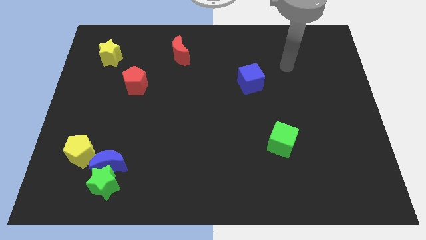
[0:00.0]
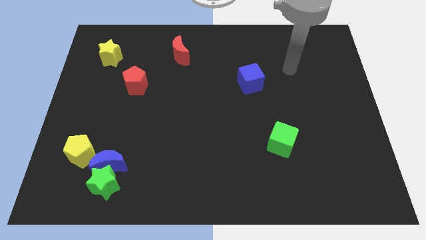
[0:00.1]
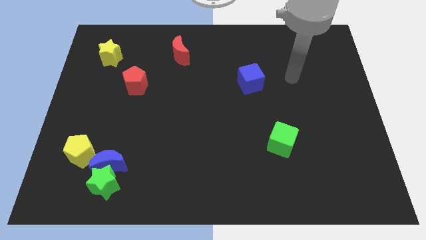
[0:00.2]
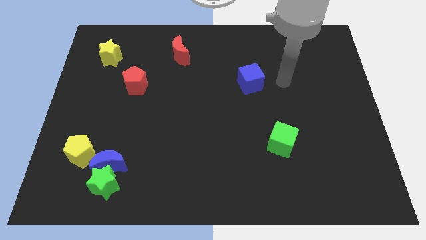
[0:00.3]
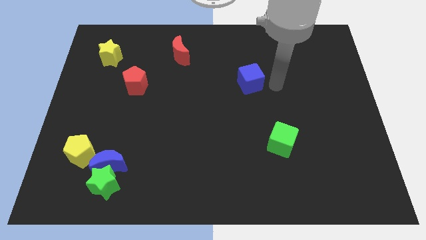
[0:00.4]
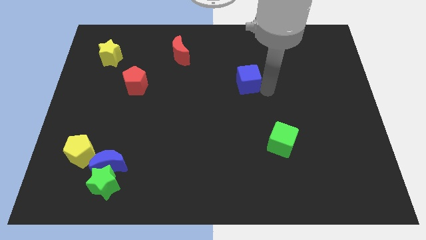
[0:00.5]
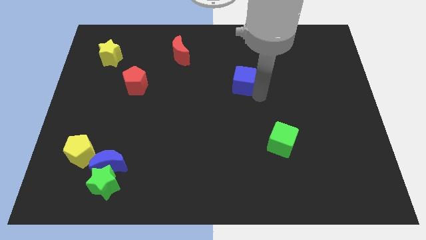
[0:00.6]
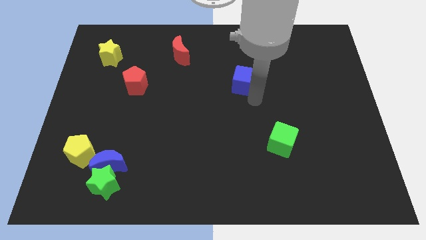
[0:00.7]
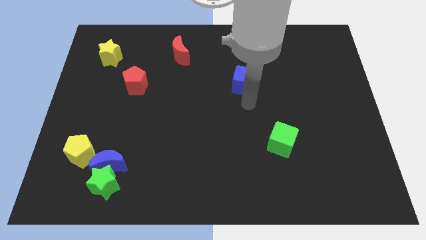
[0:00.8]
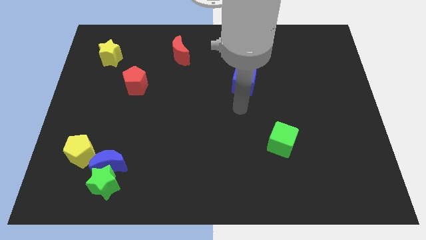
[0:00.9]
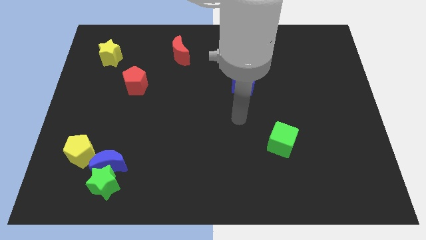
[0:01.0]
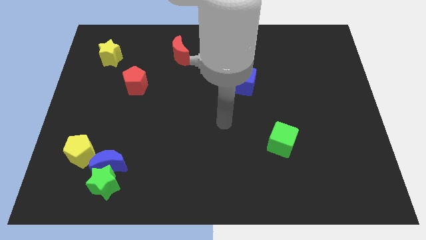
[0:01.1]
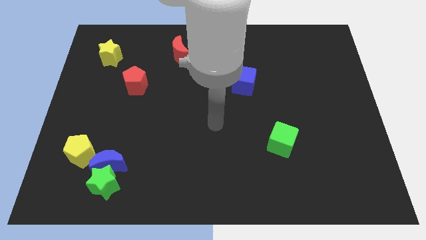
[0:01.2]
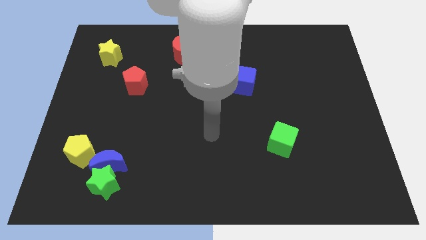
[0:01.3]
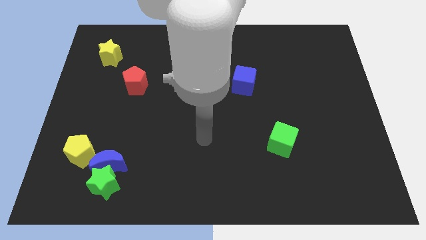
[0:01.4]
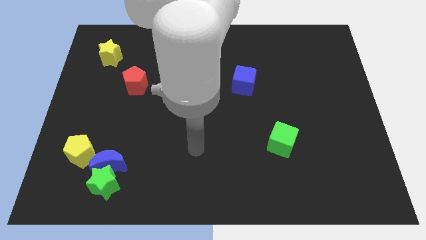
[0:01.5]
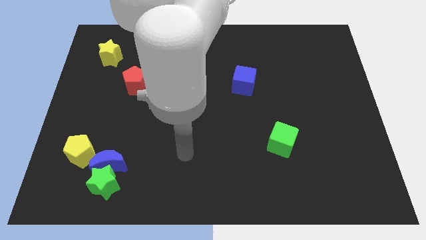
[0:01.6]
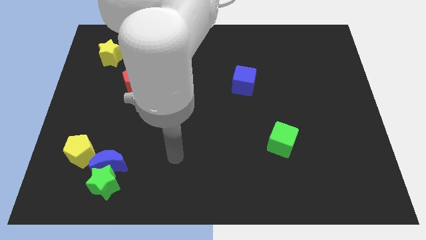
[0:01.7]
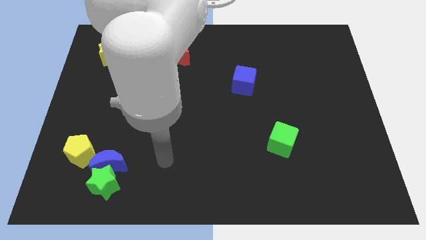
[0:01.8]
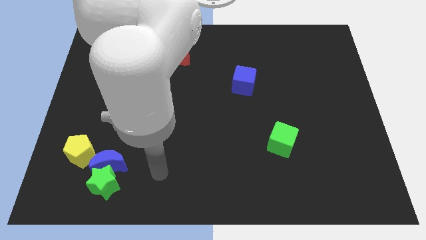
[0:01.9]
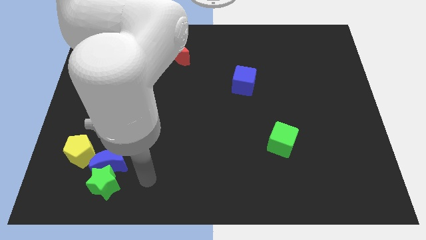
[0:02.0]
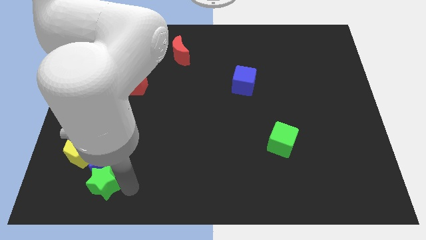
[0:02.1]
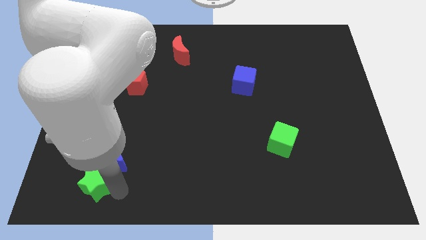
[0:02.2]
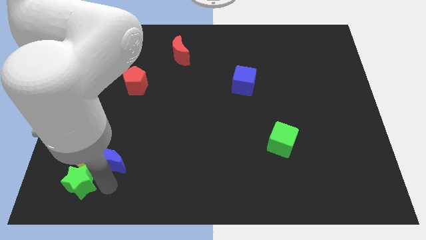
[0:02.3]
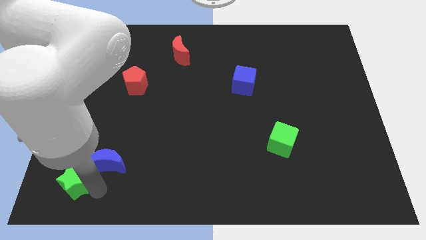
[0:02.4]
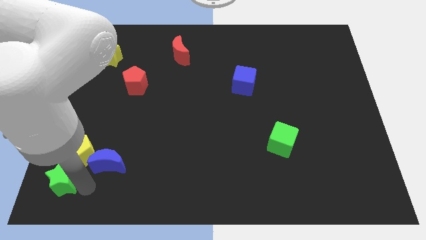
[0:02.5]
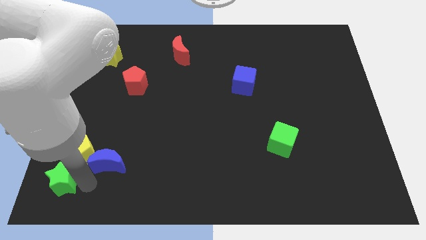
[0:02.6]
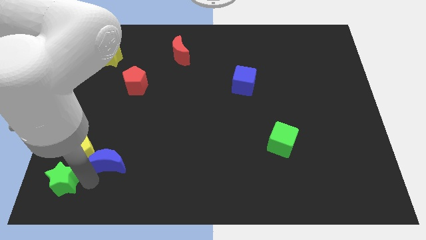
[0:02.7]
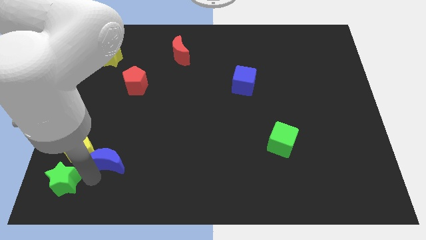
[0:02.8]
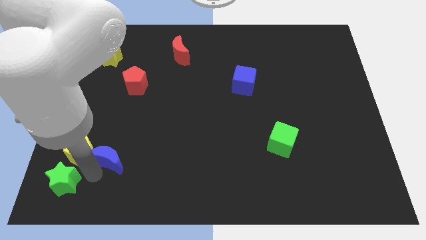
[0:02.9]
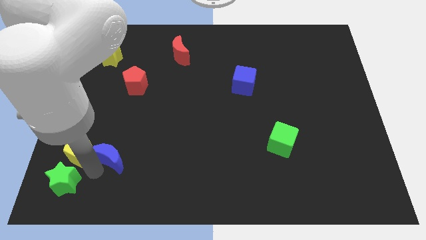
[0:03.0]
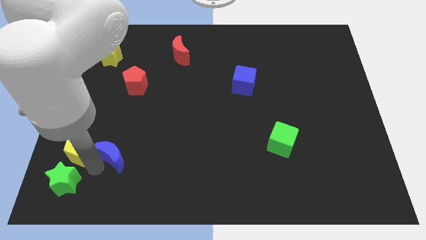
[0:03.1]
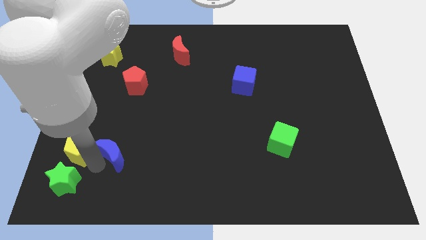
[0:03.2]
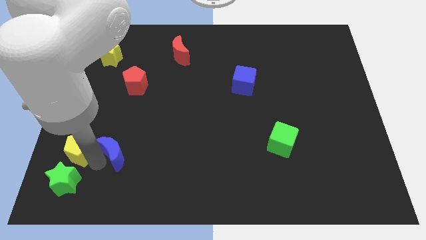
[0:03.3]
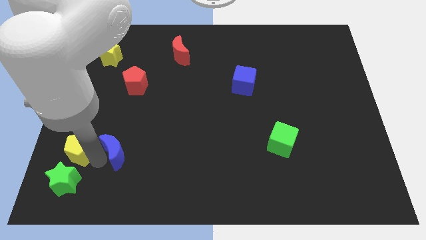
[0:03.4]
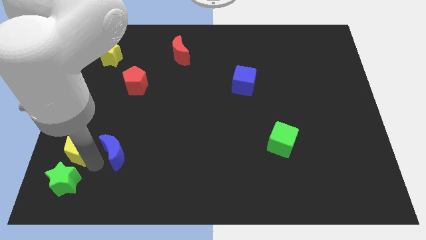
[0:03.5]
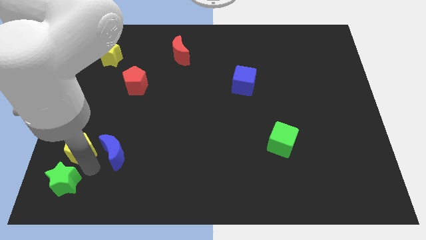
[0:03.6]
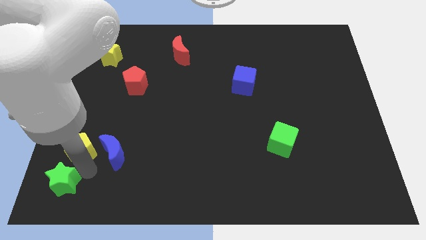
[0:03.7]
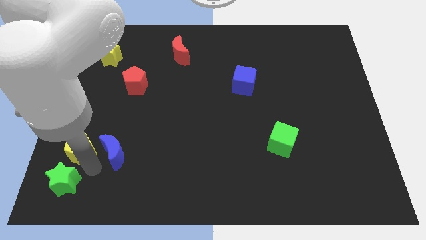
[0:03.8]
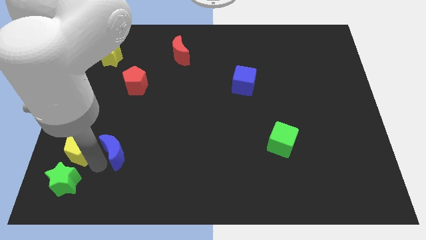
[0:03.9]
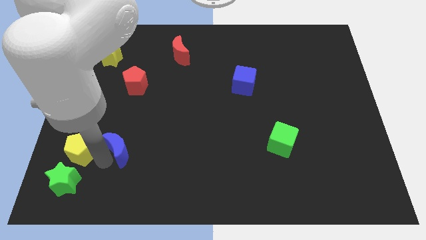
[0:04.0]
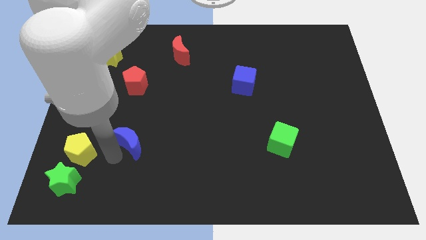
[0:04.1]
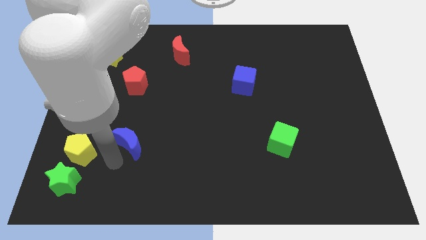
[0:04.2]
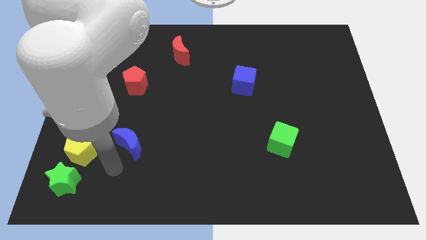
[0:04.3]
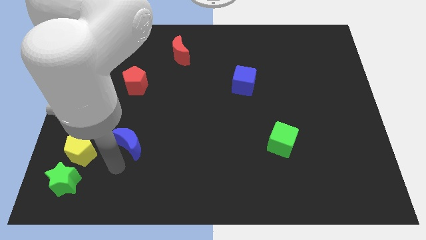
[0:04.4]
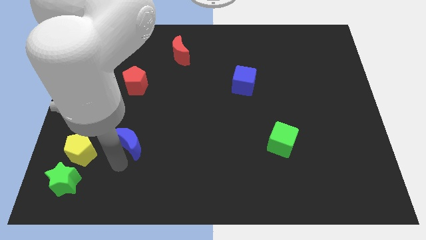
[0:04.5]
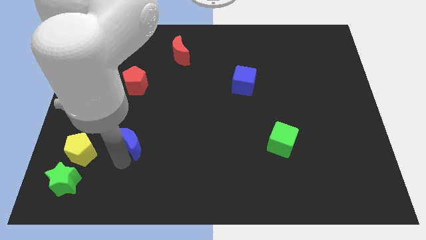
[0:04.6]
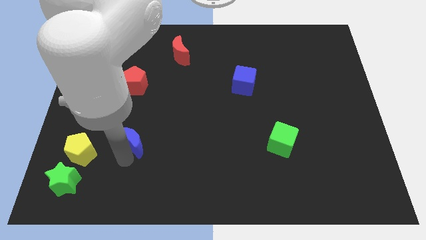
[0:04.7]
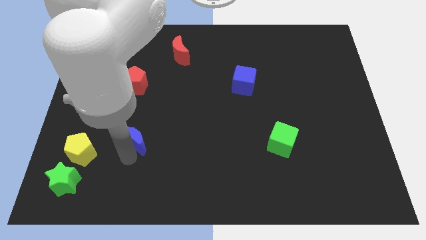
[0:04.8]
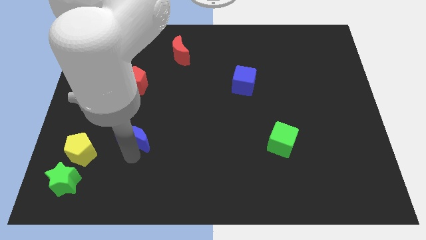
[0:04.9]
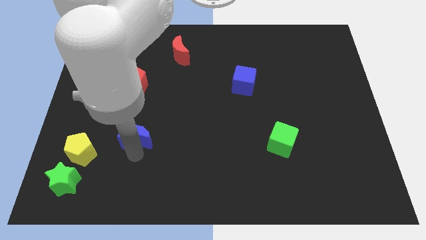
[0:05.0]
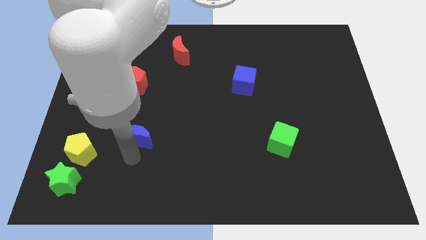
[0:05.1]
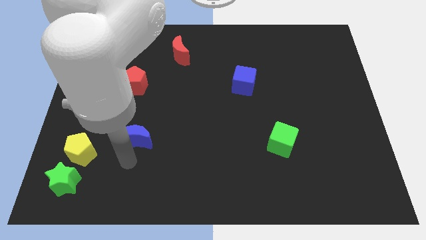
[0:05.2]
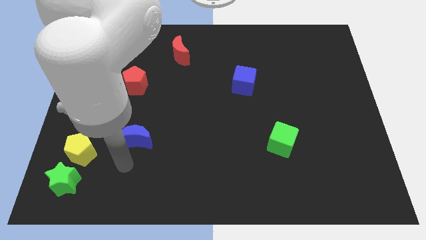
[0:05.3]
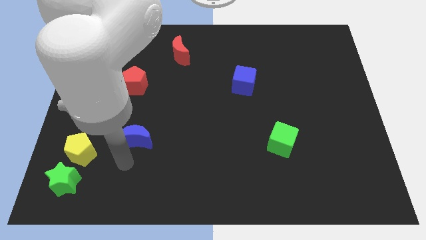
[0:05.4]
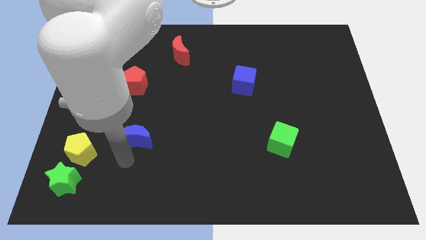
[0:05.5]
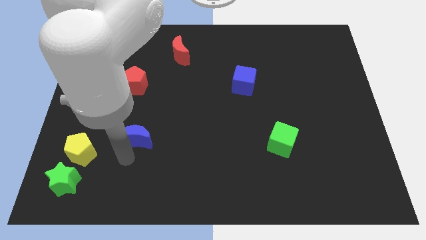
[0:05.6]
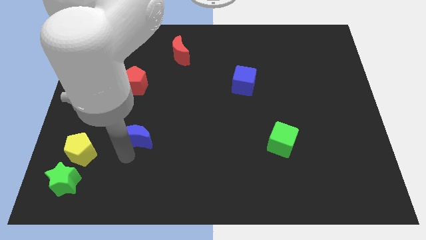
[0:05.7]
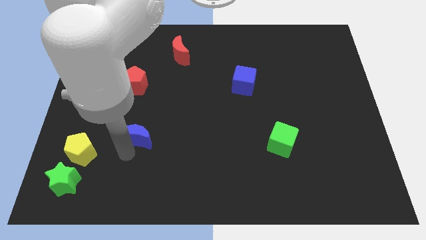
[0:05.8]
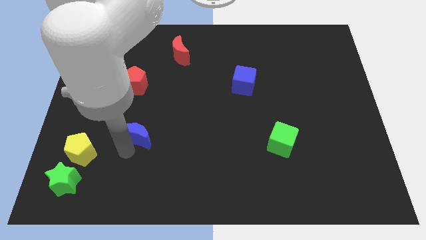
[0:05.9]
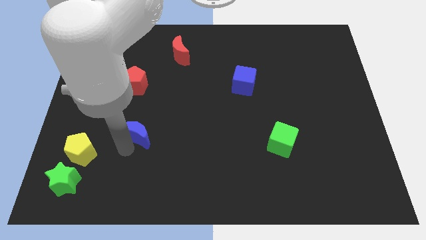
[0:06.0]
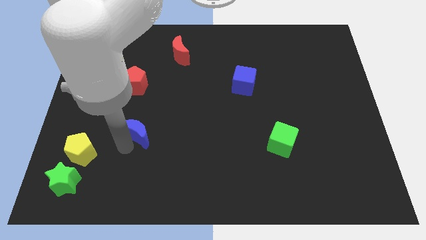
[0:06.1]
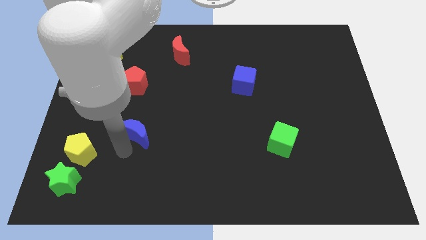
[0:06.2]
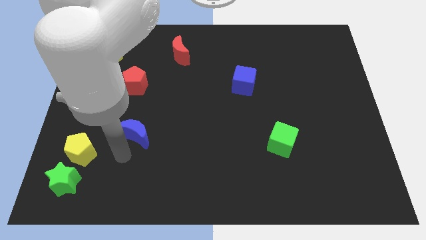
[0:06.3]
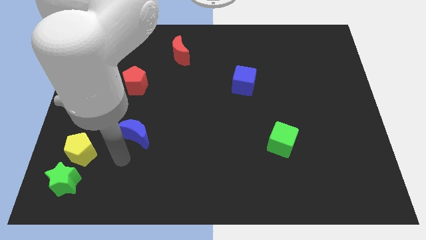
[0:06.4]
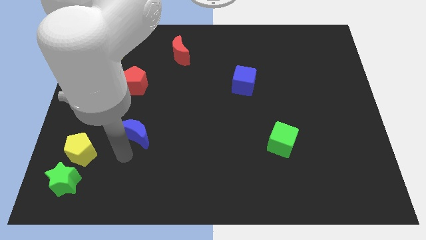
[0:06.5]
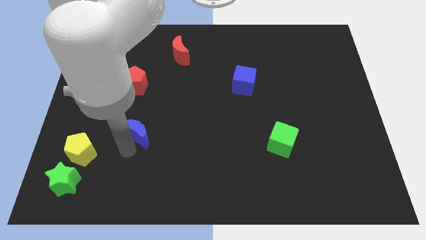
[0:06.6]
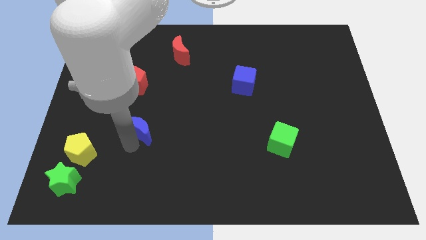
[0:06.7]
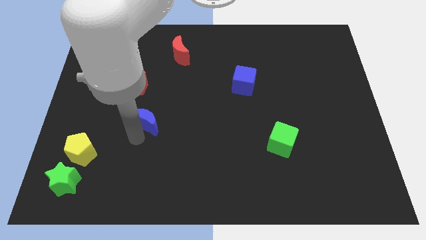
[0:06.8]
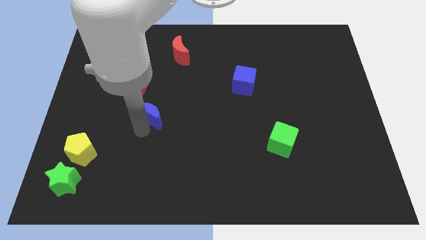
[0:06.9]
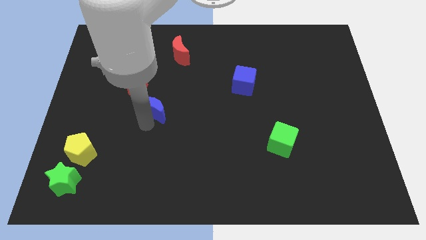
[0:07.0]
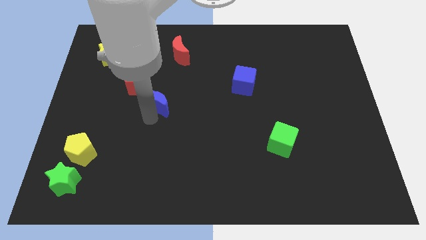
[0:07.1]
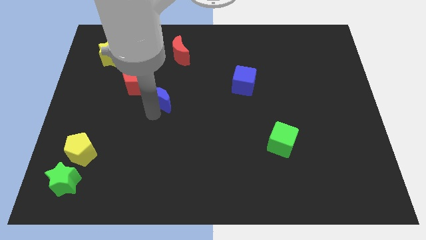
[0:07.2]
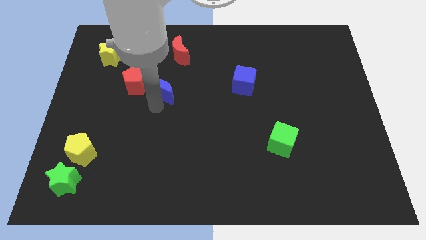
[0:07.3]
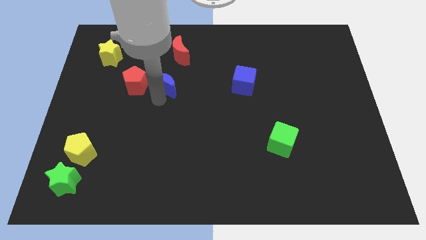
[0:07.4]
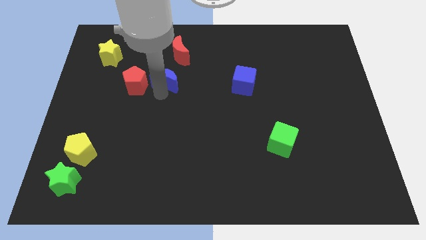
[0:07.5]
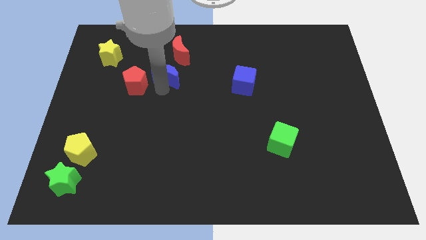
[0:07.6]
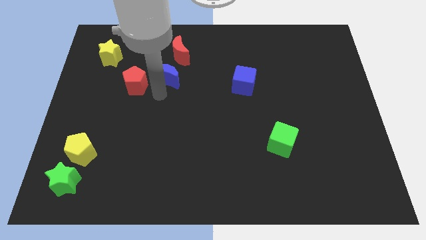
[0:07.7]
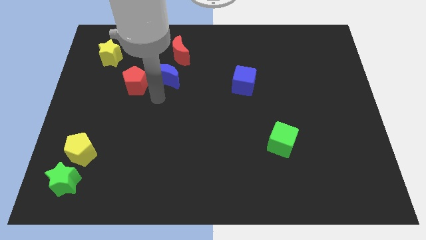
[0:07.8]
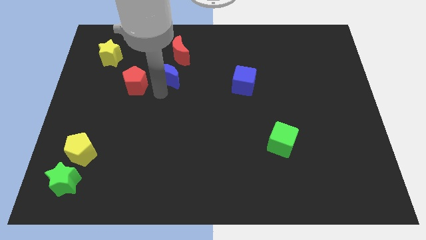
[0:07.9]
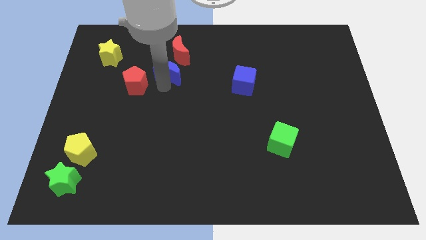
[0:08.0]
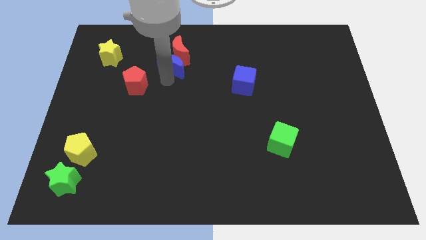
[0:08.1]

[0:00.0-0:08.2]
move the blue moon close to the red moon
